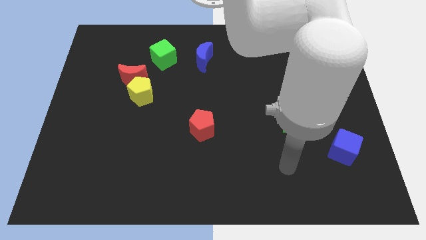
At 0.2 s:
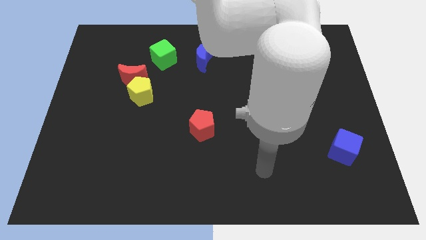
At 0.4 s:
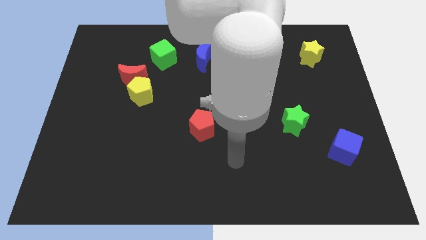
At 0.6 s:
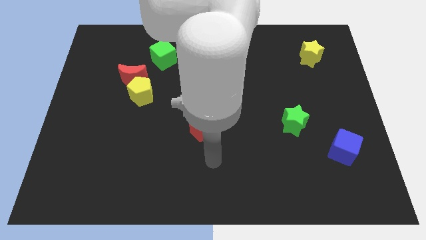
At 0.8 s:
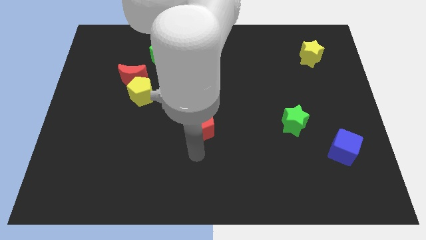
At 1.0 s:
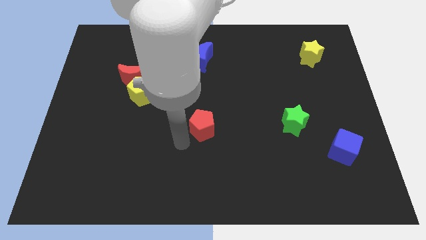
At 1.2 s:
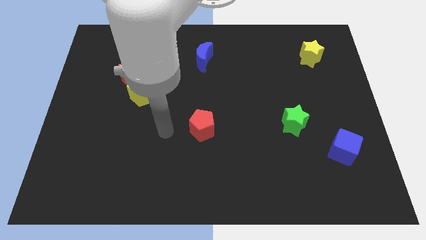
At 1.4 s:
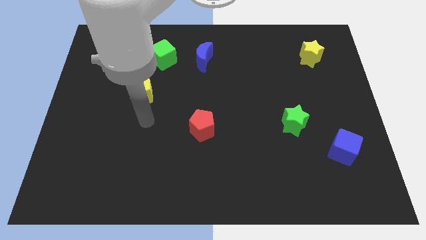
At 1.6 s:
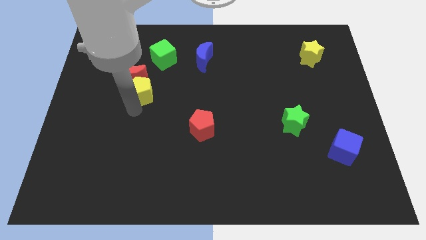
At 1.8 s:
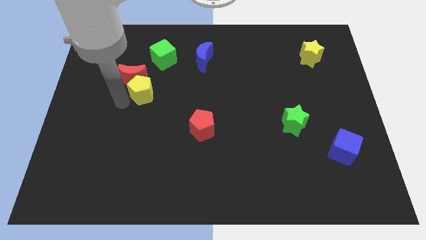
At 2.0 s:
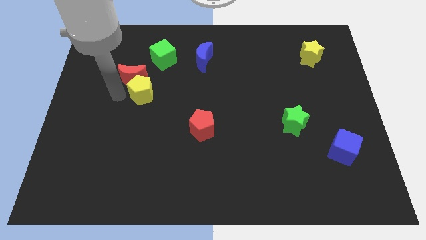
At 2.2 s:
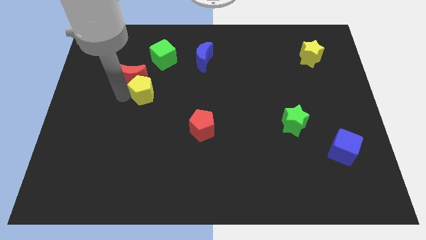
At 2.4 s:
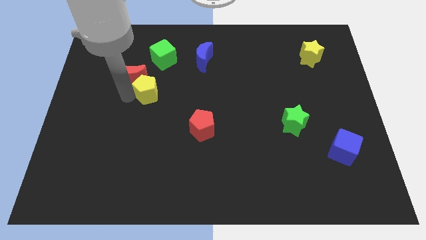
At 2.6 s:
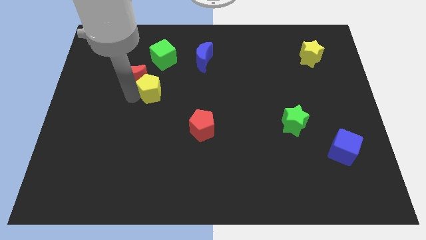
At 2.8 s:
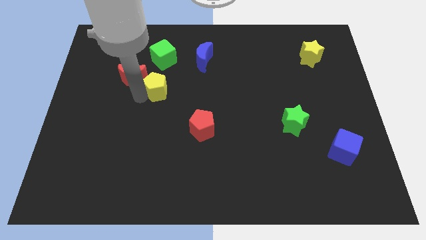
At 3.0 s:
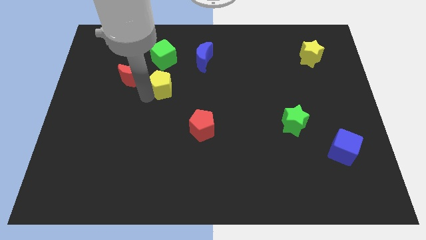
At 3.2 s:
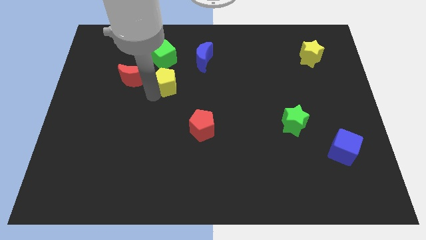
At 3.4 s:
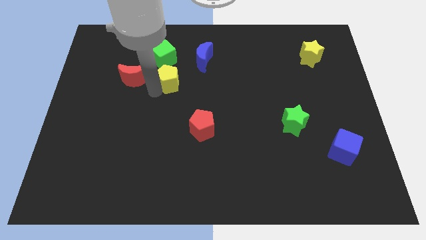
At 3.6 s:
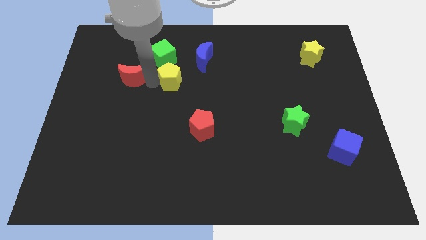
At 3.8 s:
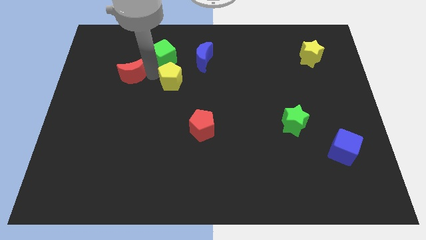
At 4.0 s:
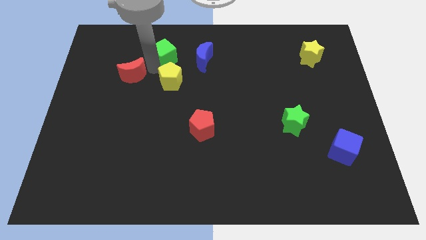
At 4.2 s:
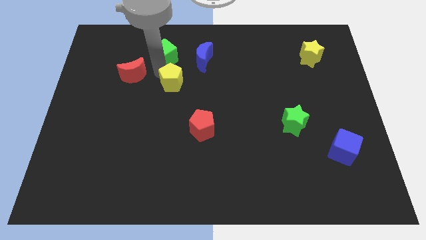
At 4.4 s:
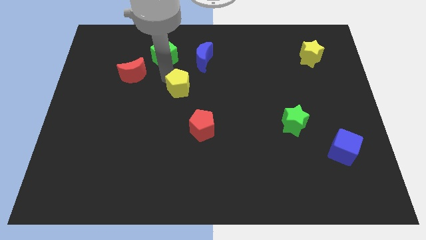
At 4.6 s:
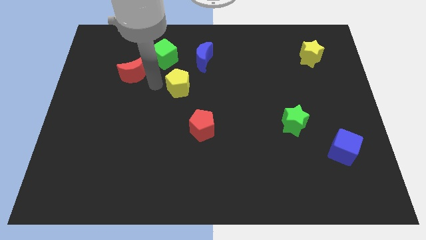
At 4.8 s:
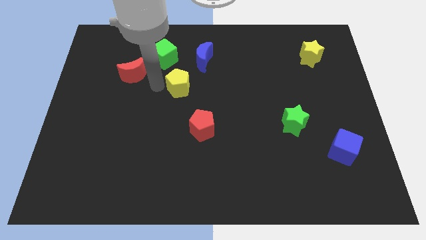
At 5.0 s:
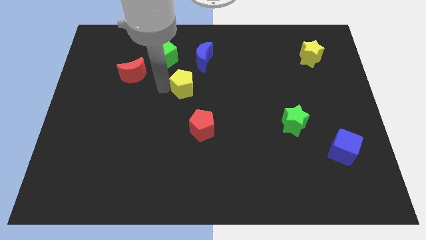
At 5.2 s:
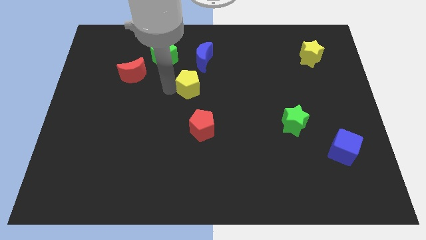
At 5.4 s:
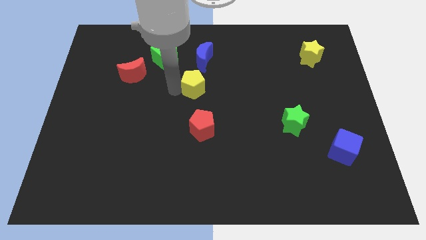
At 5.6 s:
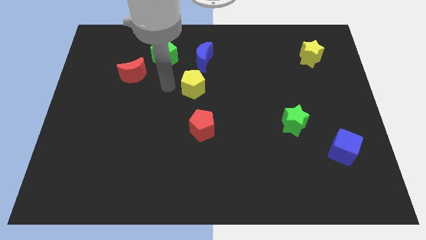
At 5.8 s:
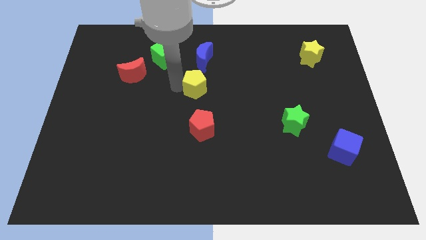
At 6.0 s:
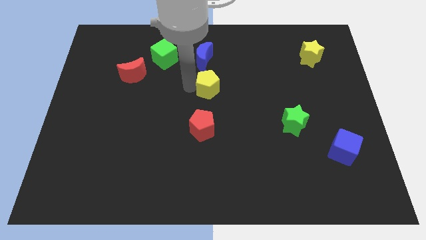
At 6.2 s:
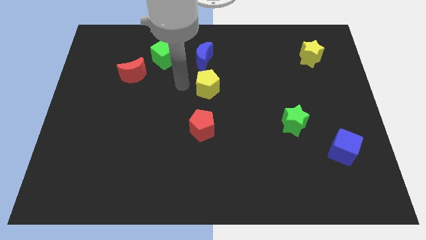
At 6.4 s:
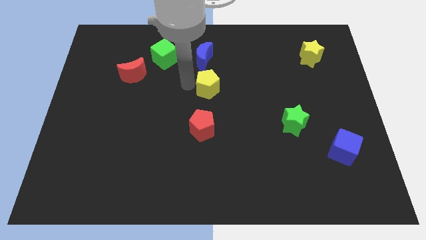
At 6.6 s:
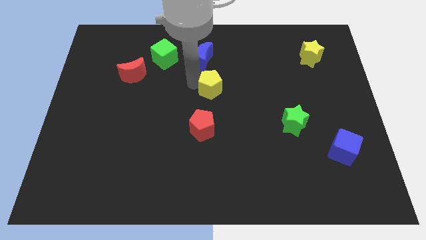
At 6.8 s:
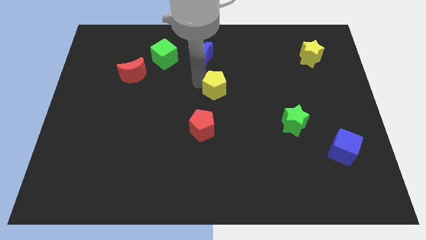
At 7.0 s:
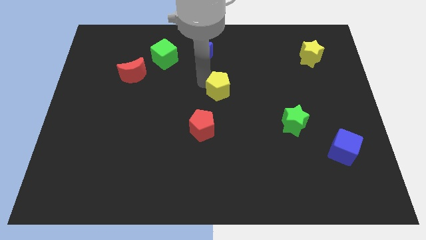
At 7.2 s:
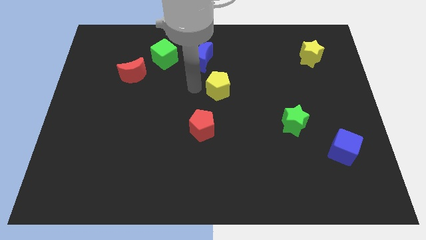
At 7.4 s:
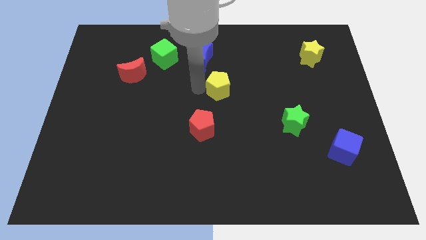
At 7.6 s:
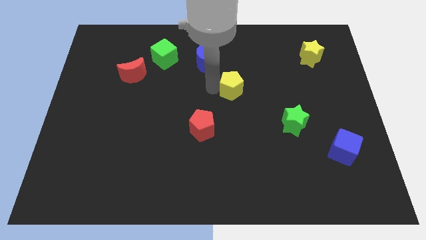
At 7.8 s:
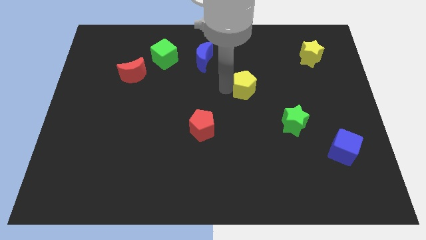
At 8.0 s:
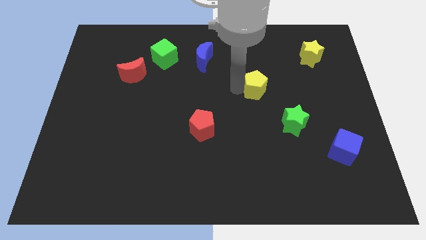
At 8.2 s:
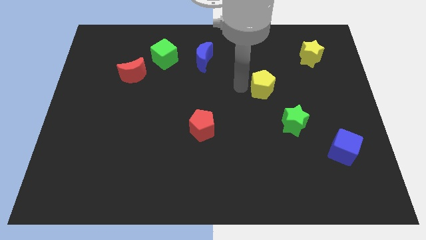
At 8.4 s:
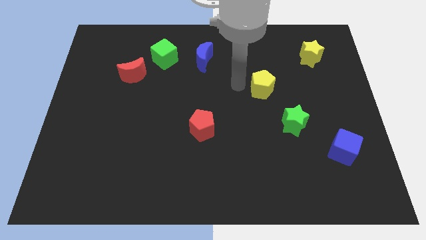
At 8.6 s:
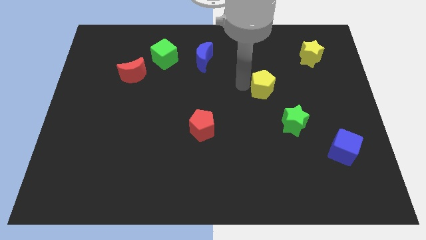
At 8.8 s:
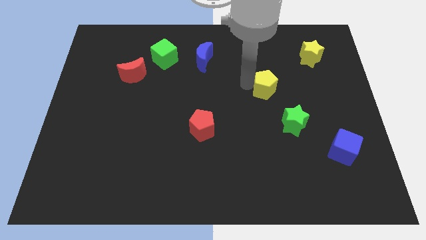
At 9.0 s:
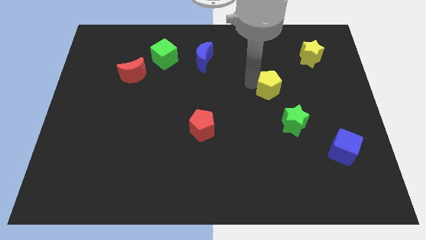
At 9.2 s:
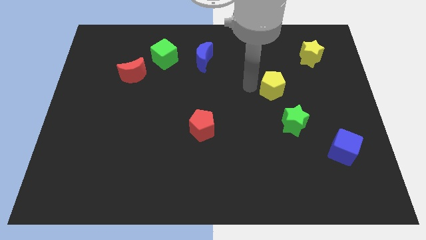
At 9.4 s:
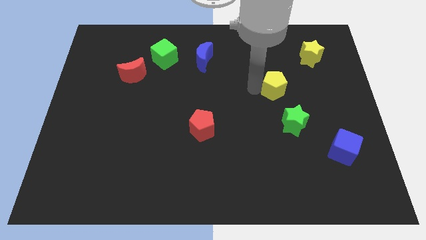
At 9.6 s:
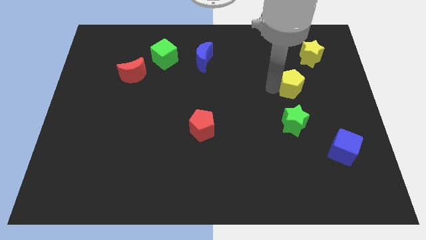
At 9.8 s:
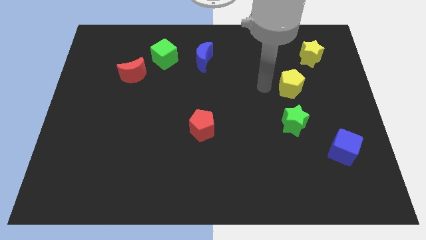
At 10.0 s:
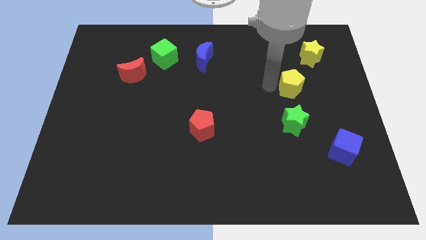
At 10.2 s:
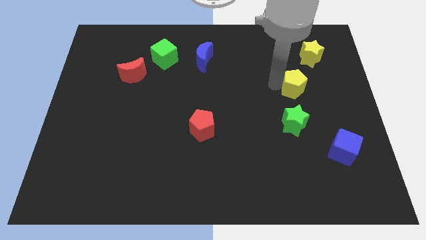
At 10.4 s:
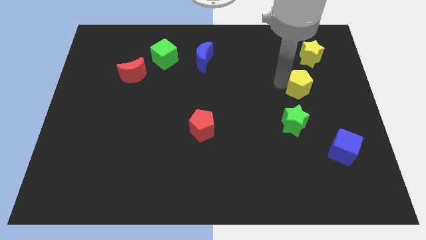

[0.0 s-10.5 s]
slide the yellow pentagon to the bottom of the yellow star

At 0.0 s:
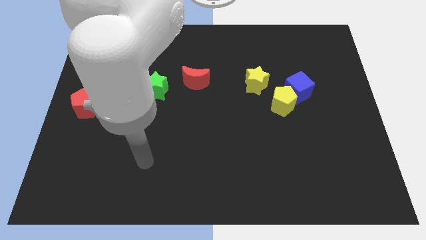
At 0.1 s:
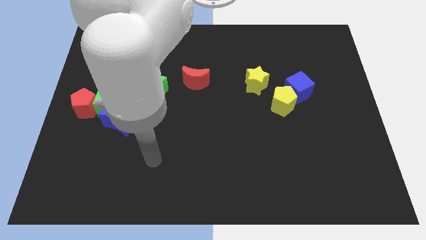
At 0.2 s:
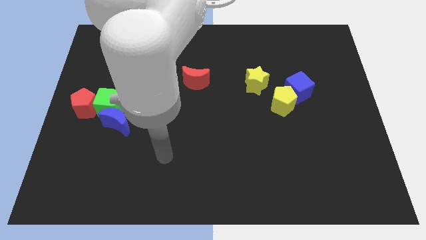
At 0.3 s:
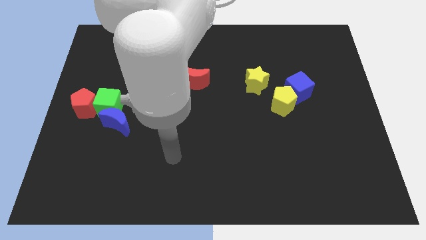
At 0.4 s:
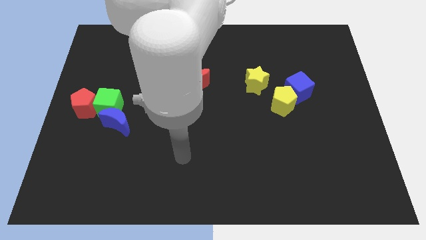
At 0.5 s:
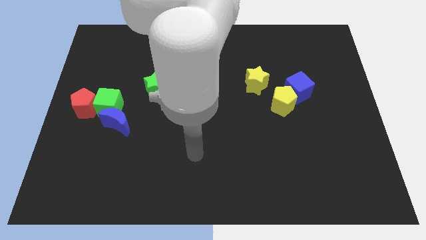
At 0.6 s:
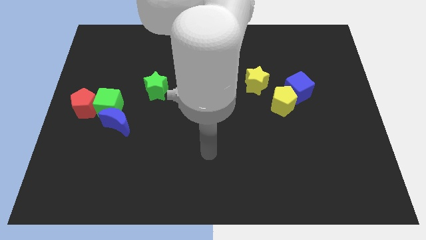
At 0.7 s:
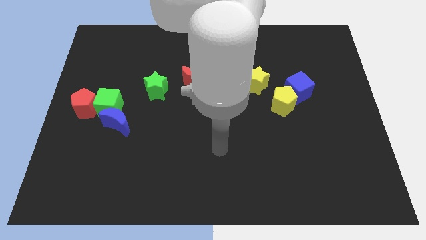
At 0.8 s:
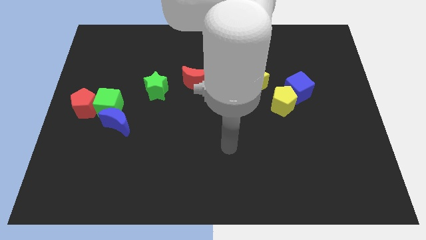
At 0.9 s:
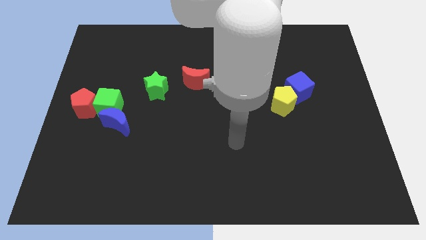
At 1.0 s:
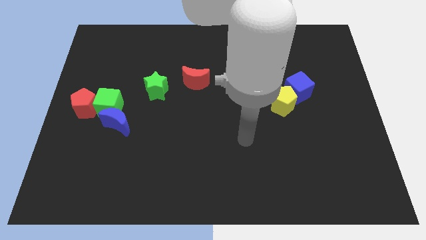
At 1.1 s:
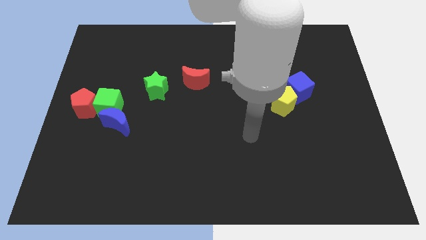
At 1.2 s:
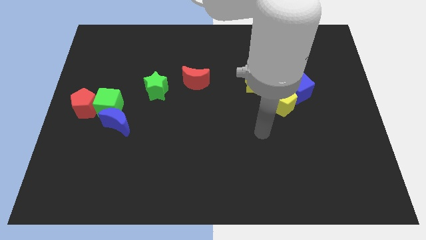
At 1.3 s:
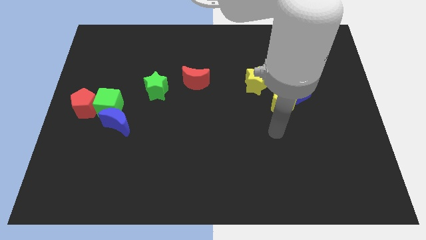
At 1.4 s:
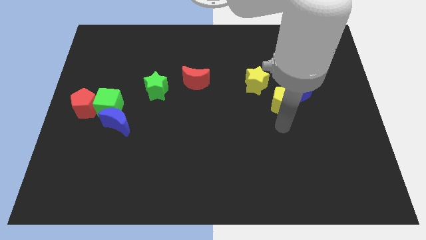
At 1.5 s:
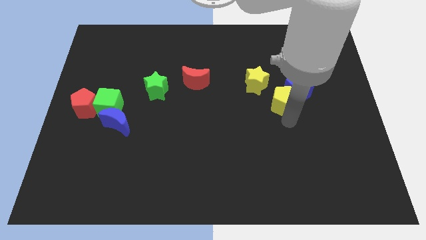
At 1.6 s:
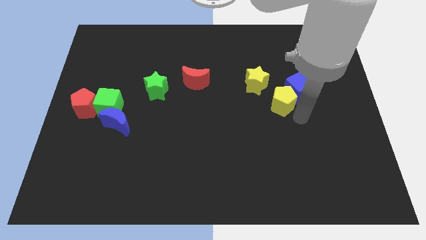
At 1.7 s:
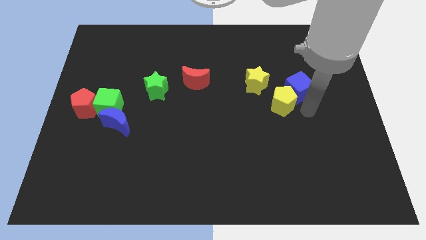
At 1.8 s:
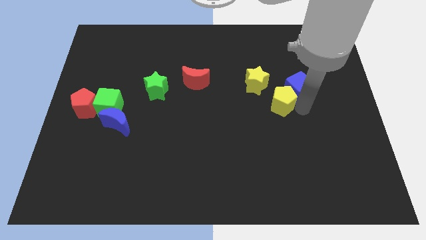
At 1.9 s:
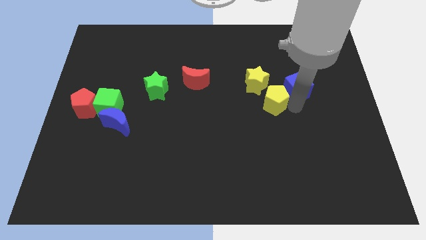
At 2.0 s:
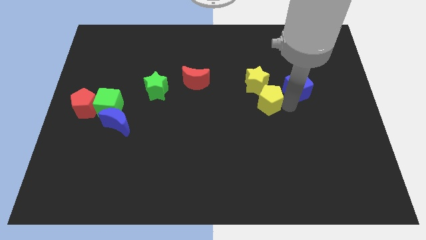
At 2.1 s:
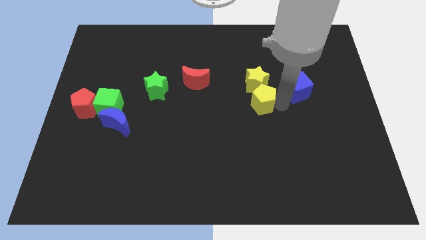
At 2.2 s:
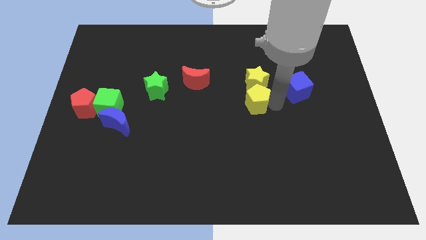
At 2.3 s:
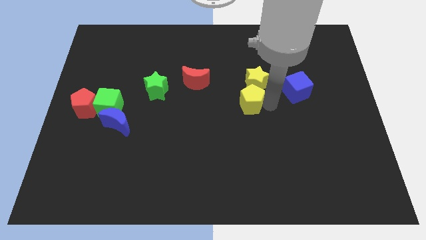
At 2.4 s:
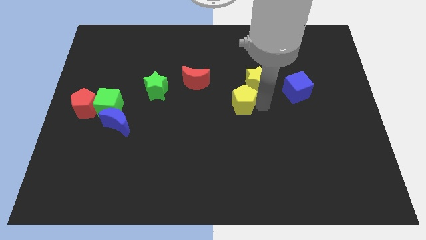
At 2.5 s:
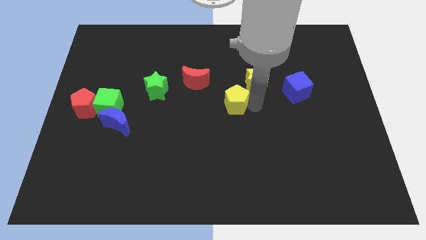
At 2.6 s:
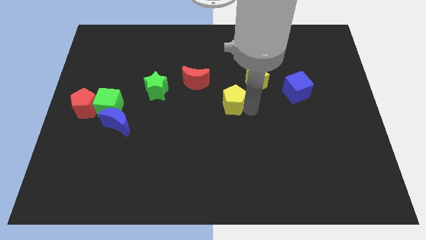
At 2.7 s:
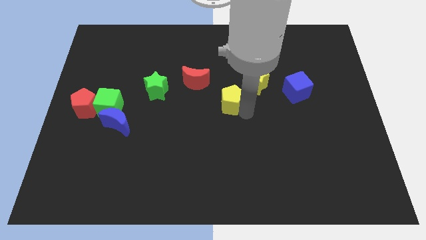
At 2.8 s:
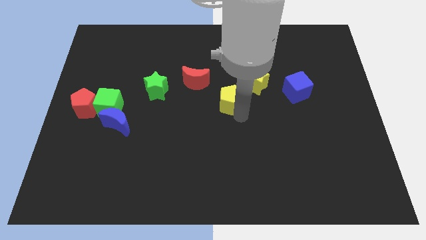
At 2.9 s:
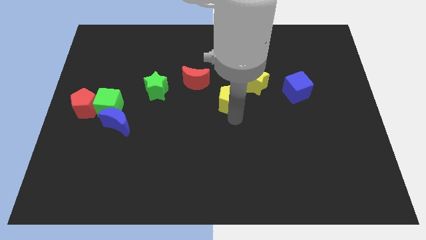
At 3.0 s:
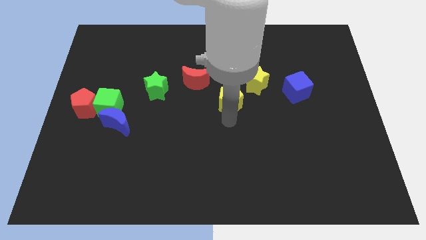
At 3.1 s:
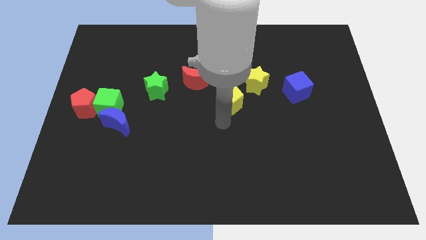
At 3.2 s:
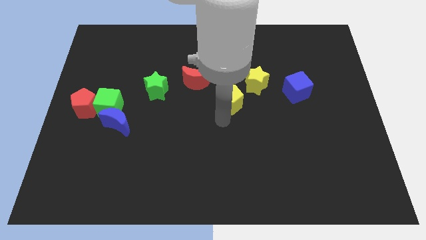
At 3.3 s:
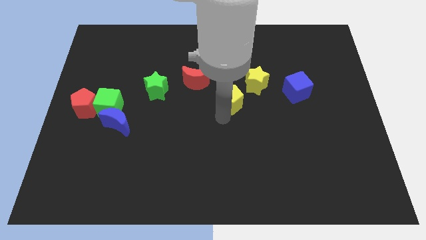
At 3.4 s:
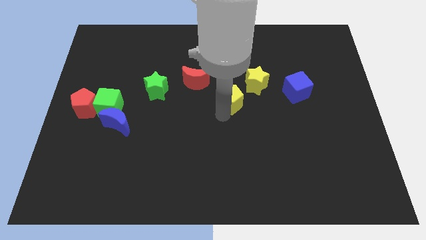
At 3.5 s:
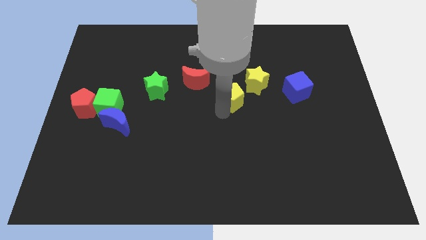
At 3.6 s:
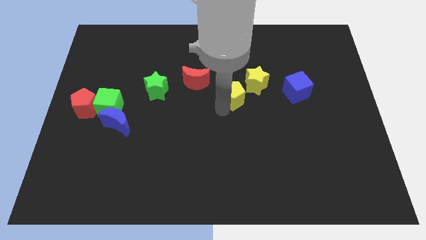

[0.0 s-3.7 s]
move the yellow pentagon just right of the red moon
